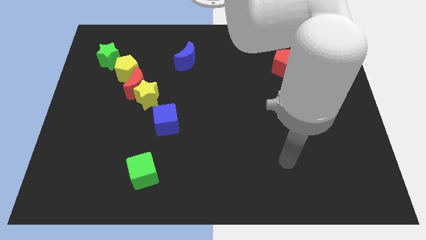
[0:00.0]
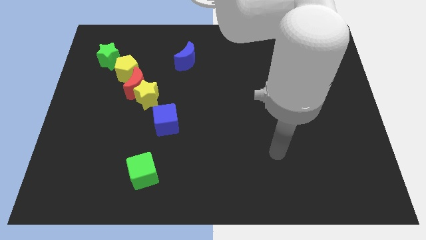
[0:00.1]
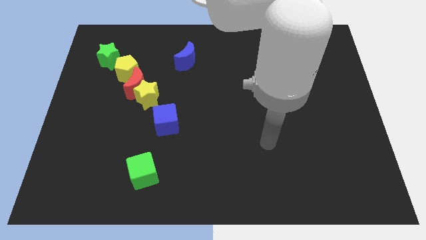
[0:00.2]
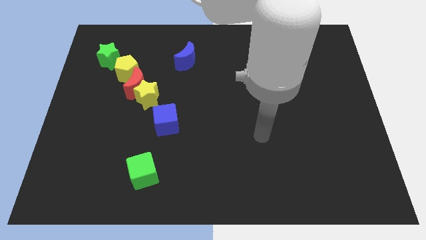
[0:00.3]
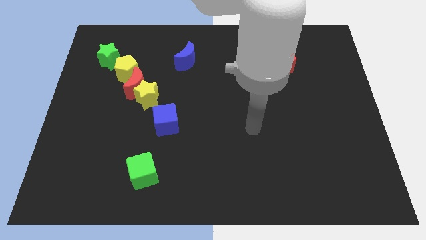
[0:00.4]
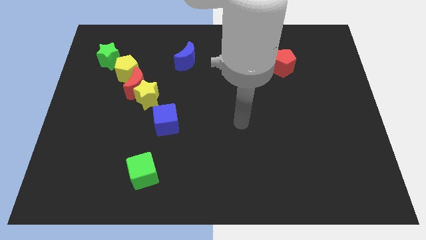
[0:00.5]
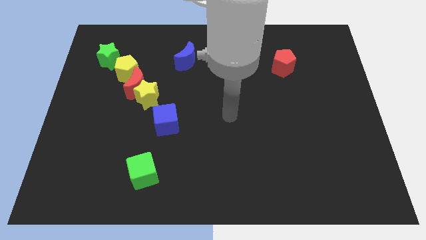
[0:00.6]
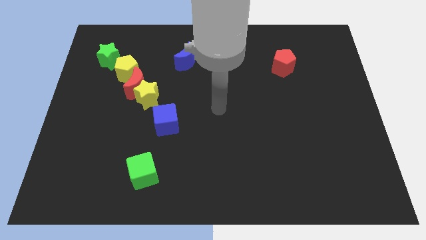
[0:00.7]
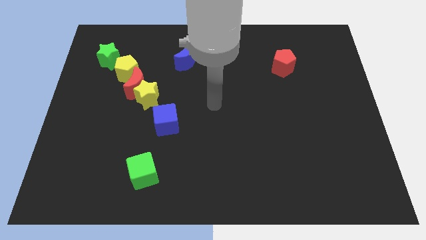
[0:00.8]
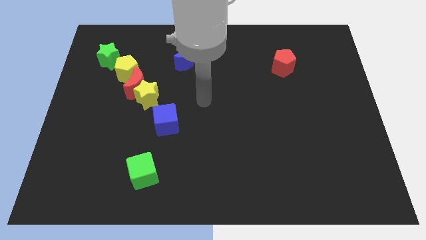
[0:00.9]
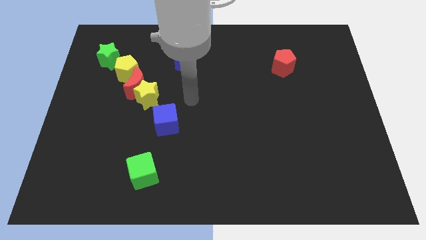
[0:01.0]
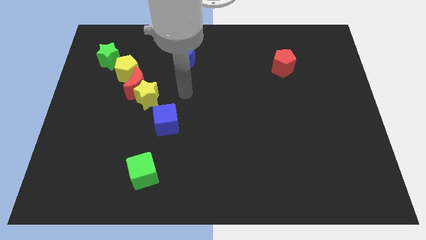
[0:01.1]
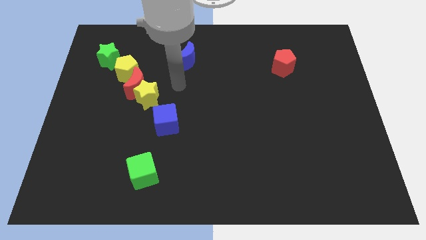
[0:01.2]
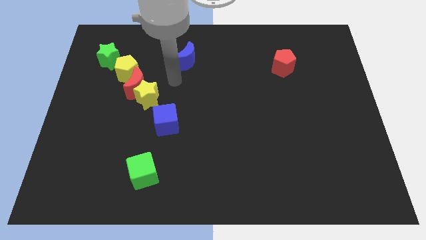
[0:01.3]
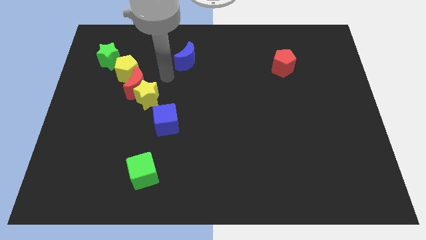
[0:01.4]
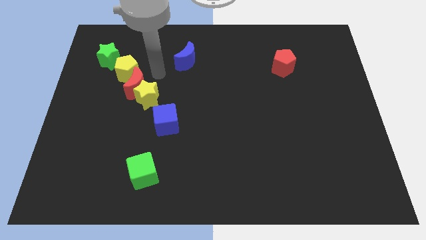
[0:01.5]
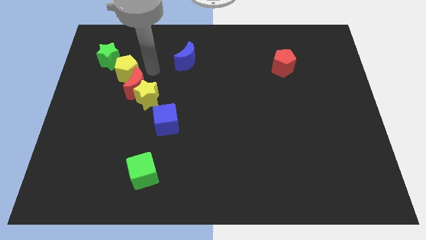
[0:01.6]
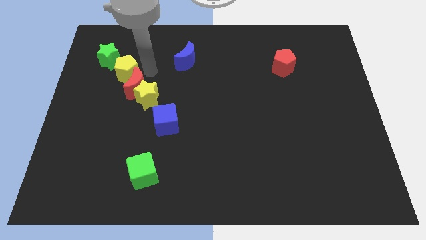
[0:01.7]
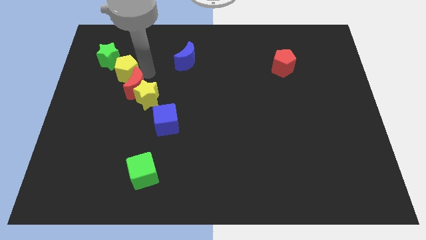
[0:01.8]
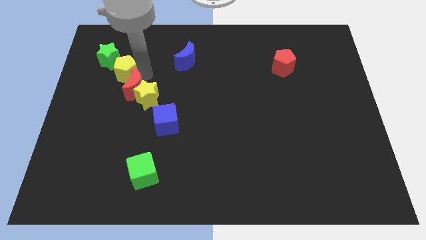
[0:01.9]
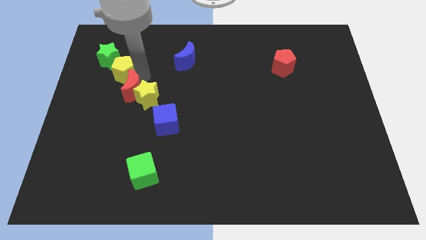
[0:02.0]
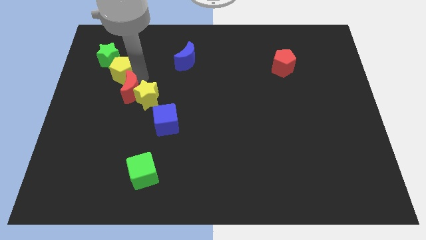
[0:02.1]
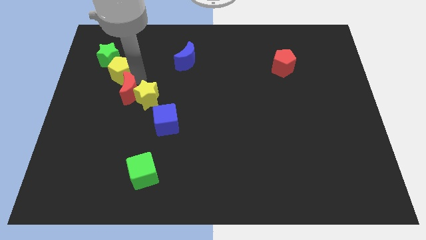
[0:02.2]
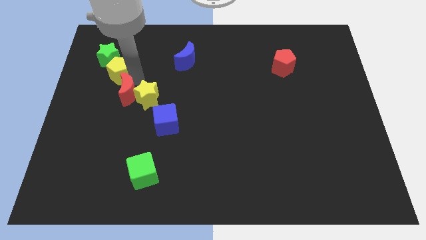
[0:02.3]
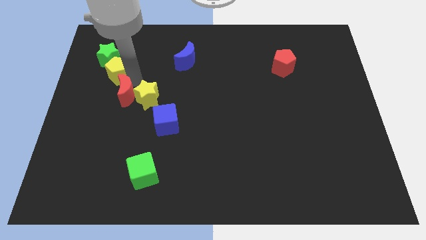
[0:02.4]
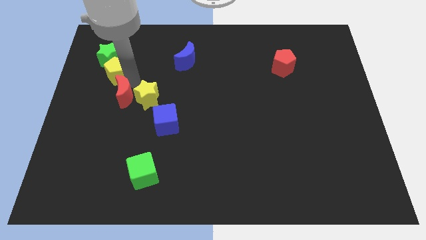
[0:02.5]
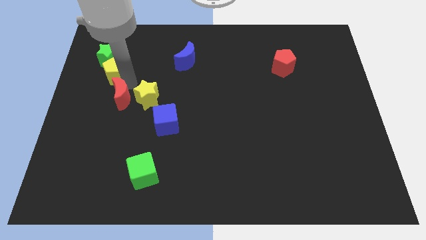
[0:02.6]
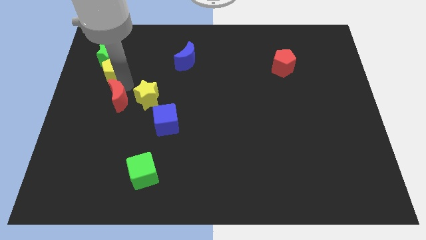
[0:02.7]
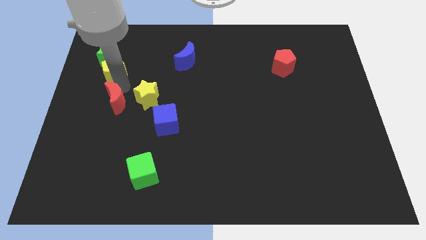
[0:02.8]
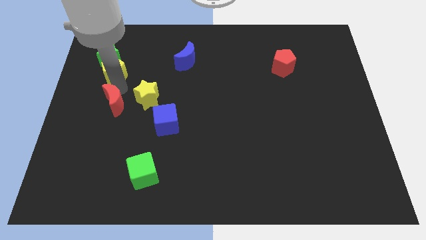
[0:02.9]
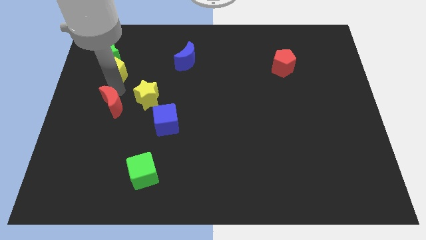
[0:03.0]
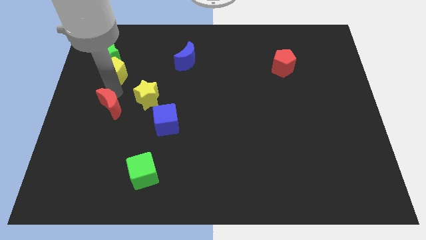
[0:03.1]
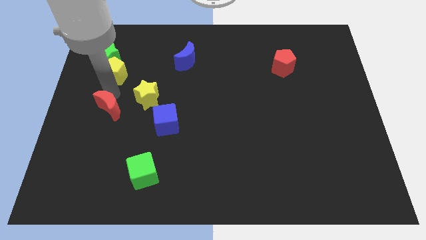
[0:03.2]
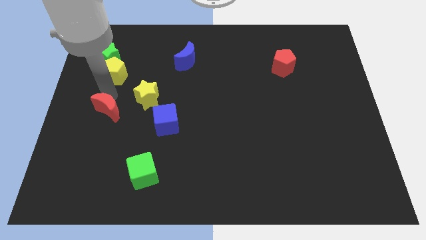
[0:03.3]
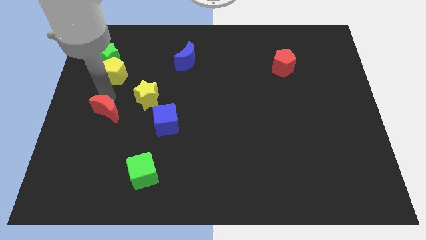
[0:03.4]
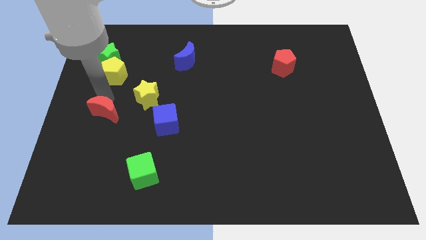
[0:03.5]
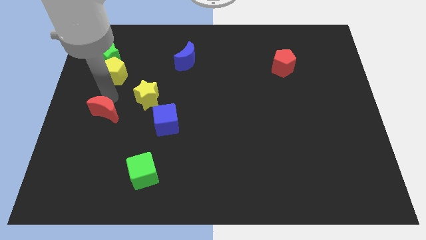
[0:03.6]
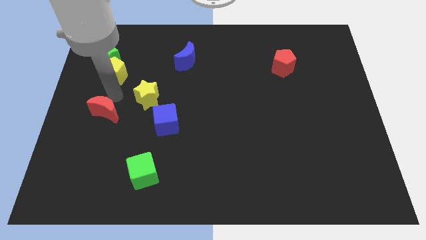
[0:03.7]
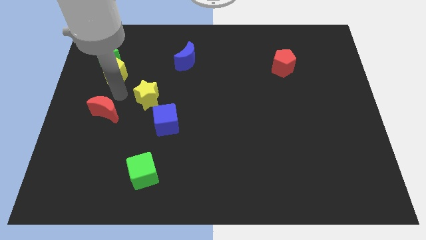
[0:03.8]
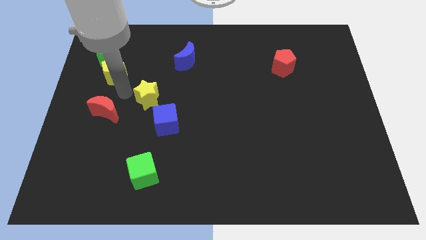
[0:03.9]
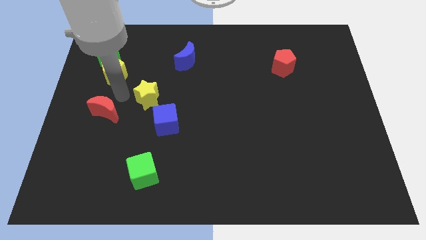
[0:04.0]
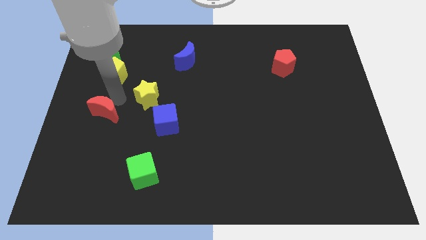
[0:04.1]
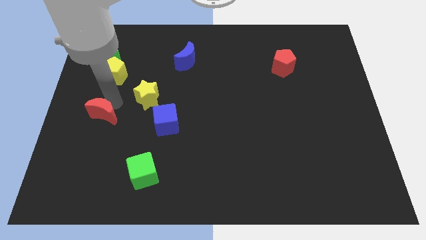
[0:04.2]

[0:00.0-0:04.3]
separate the red moon from the yellow star and yellow pentagon

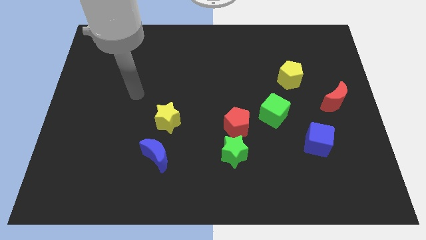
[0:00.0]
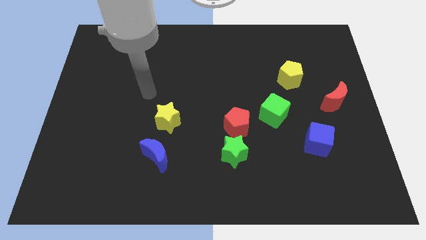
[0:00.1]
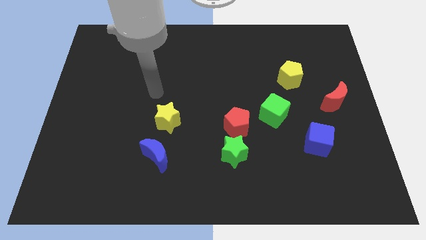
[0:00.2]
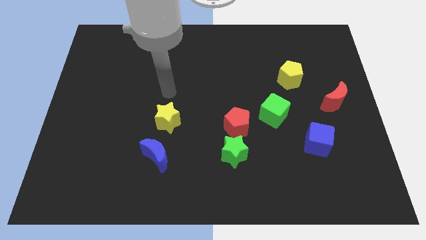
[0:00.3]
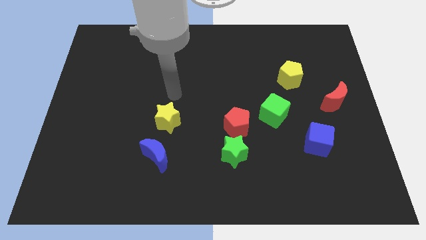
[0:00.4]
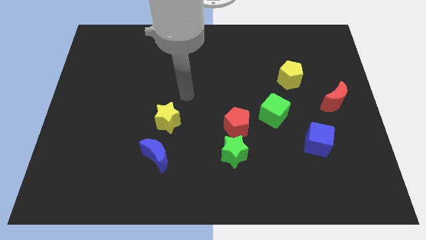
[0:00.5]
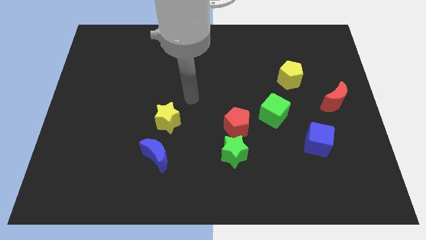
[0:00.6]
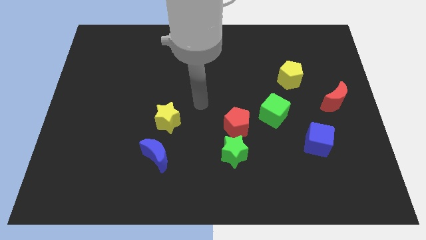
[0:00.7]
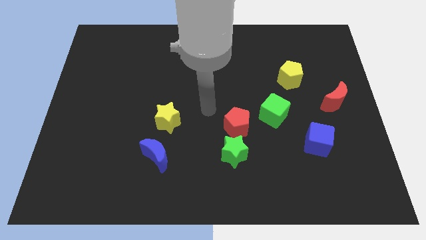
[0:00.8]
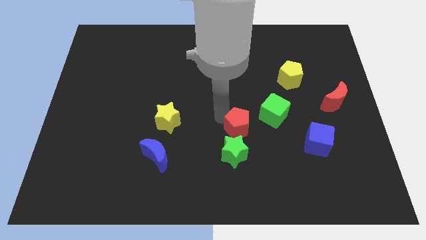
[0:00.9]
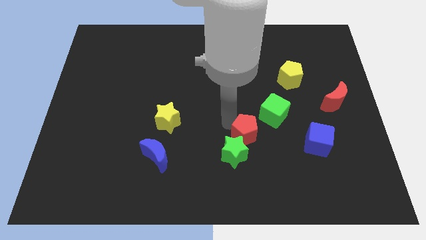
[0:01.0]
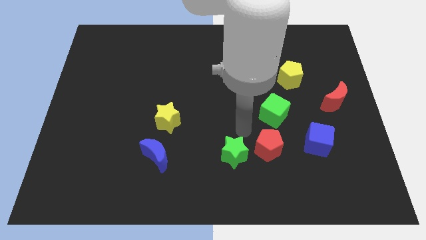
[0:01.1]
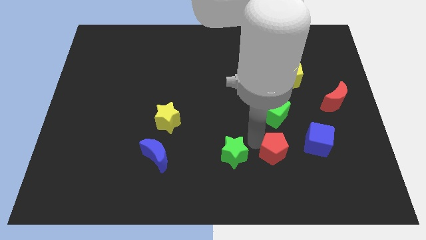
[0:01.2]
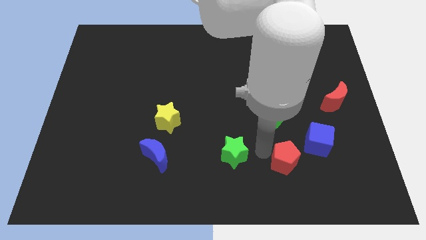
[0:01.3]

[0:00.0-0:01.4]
move the green star away from the red pentagon

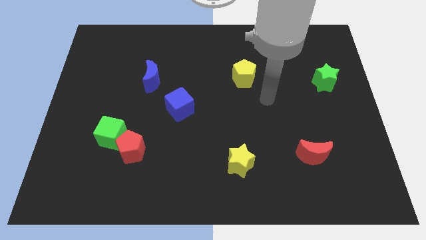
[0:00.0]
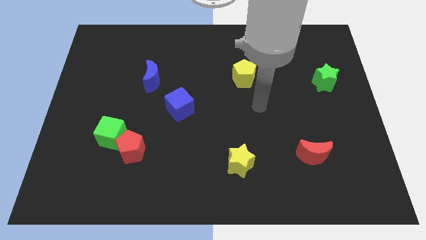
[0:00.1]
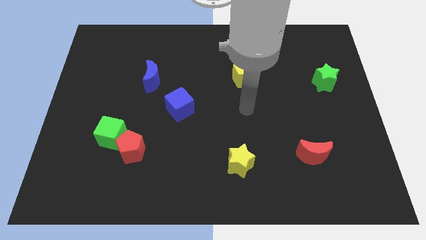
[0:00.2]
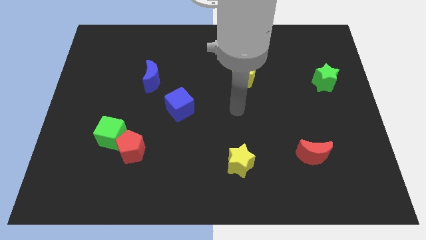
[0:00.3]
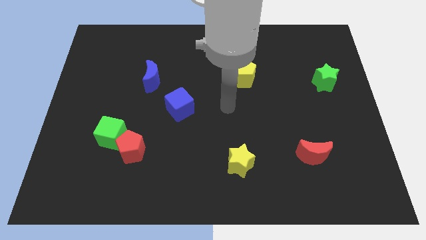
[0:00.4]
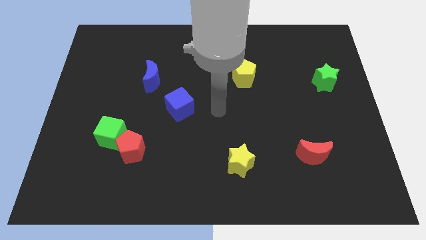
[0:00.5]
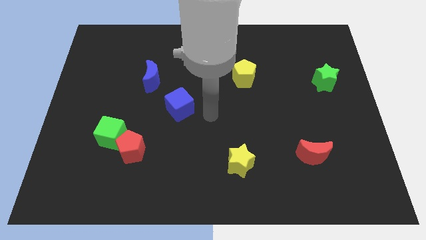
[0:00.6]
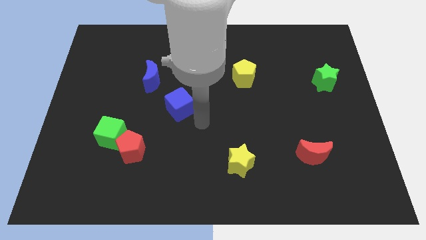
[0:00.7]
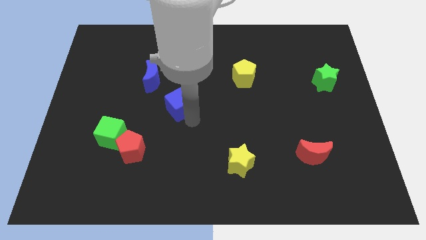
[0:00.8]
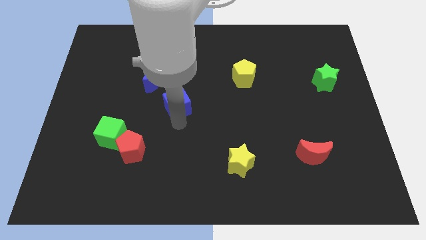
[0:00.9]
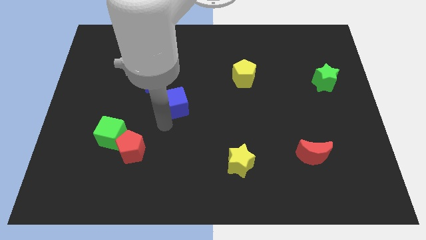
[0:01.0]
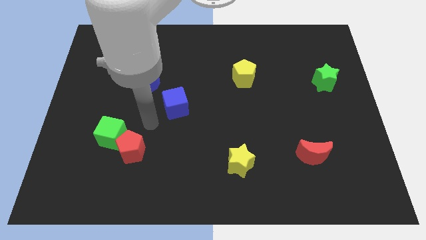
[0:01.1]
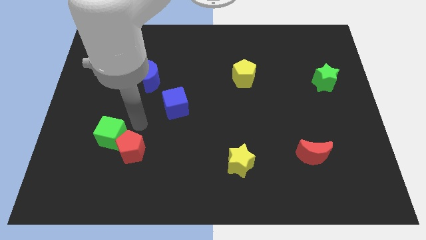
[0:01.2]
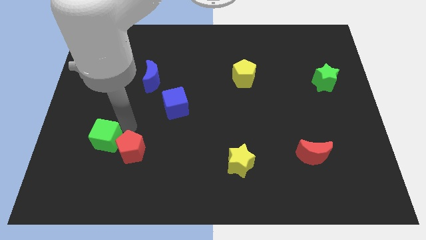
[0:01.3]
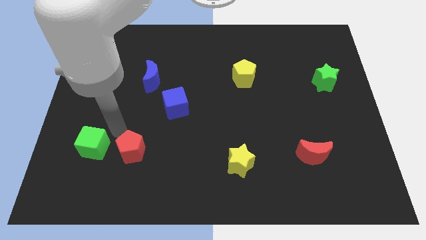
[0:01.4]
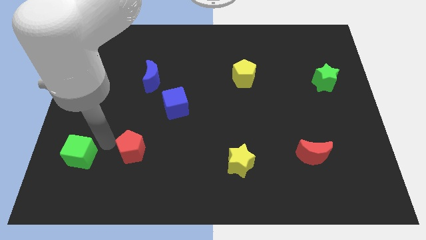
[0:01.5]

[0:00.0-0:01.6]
pull the red pentagon apart from the green cube

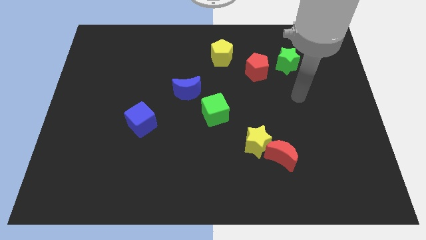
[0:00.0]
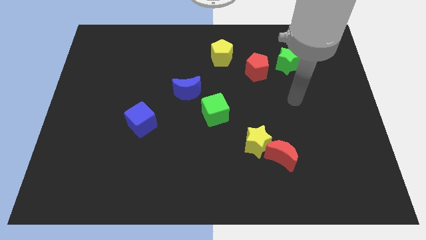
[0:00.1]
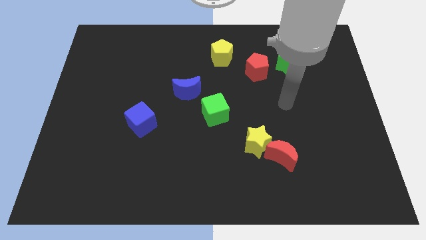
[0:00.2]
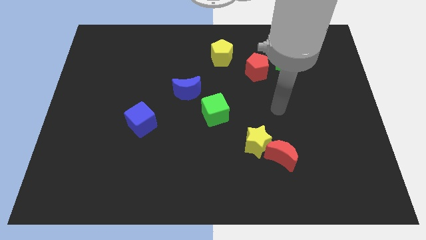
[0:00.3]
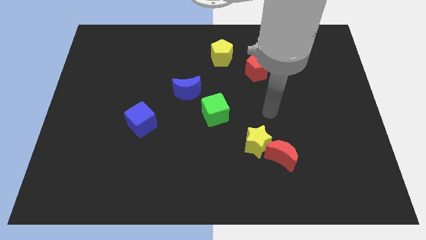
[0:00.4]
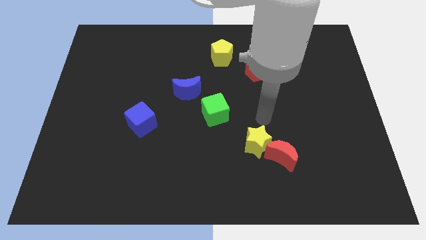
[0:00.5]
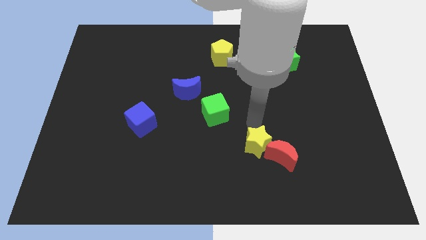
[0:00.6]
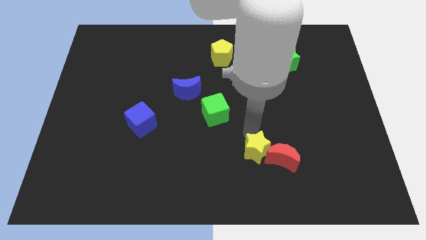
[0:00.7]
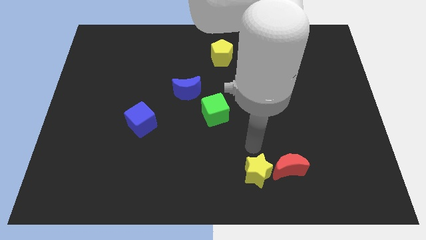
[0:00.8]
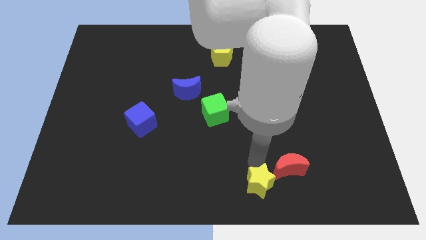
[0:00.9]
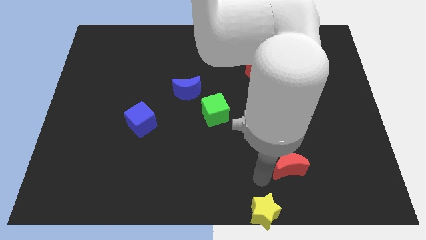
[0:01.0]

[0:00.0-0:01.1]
separate the red moon from the yellow star

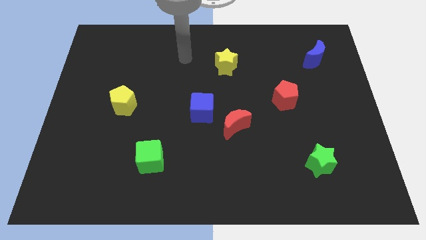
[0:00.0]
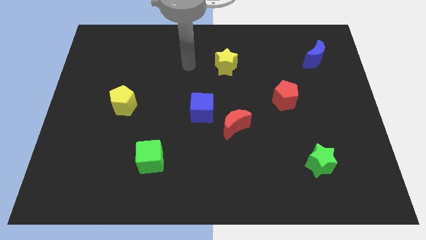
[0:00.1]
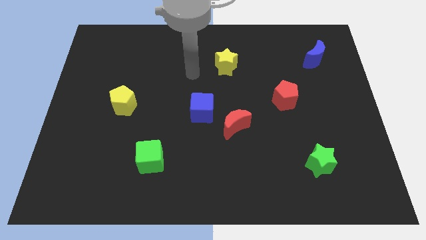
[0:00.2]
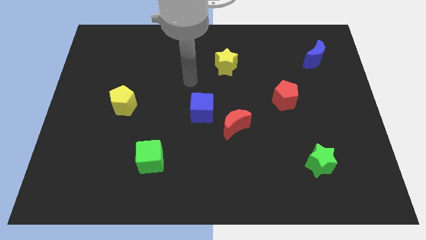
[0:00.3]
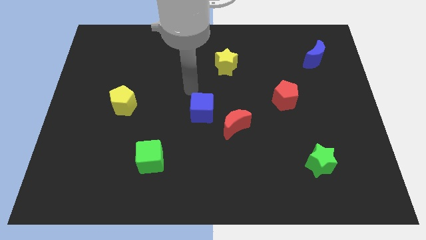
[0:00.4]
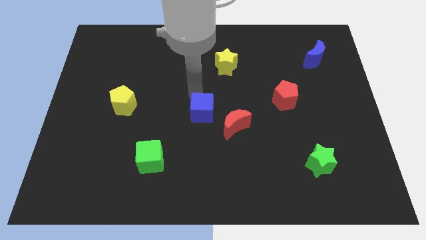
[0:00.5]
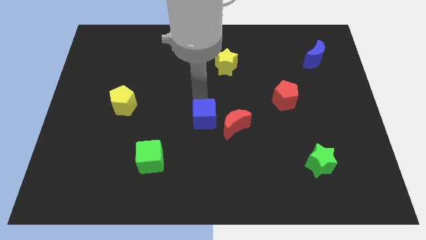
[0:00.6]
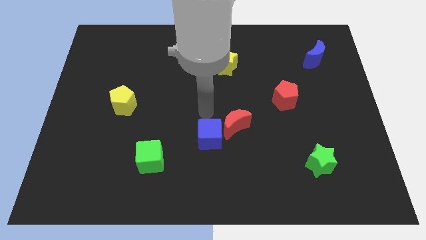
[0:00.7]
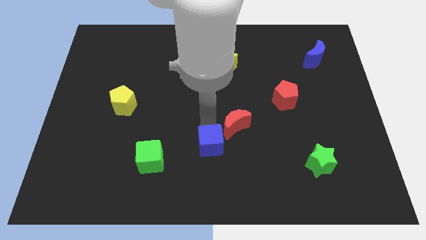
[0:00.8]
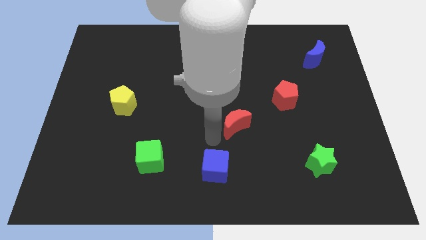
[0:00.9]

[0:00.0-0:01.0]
pull the red moon apart from the blue cube
